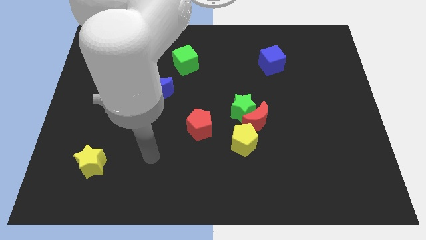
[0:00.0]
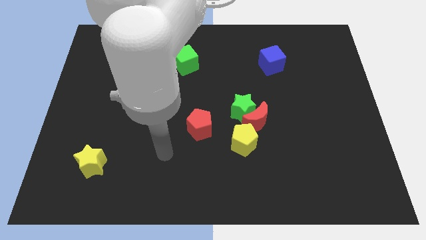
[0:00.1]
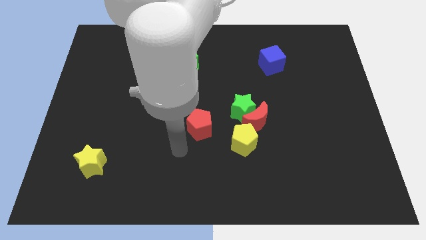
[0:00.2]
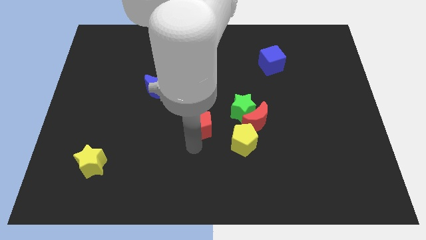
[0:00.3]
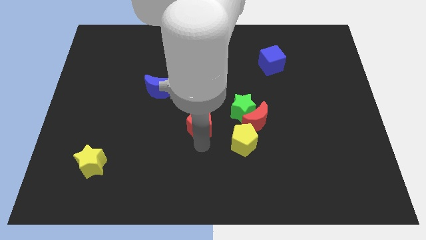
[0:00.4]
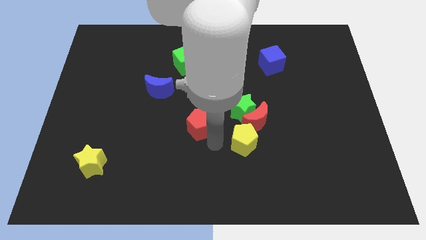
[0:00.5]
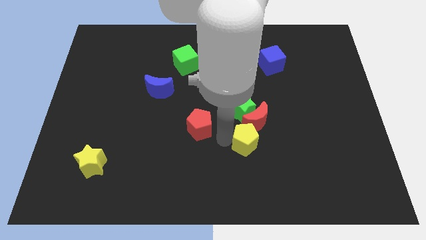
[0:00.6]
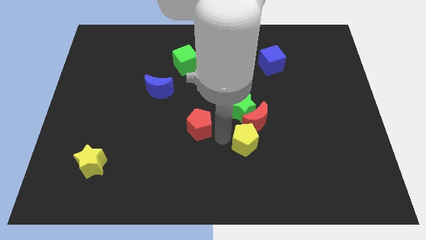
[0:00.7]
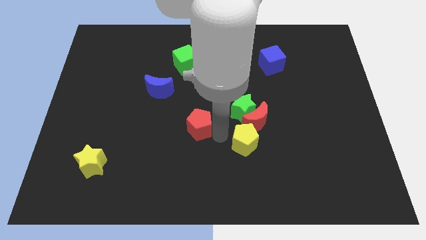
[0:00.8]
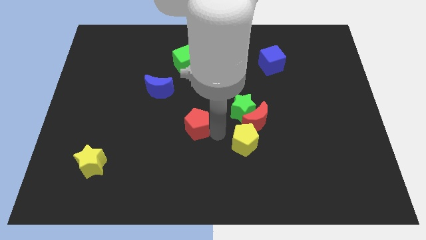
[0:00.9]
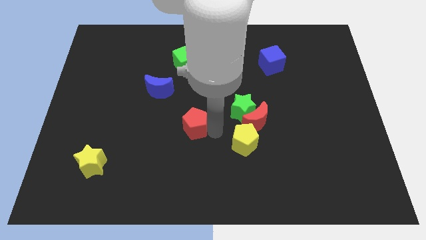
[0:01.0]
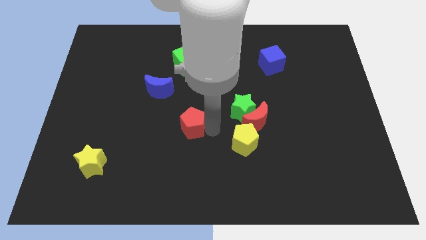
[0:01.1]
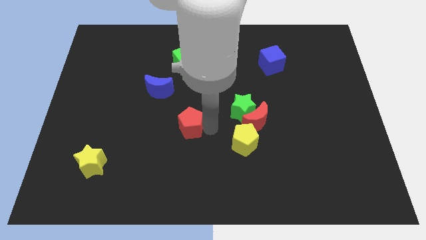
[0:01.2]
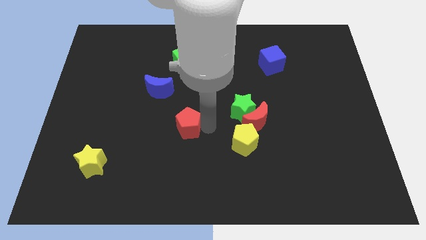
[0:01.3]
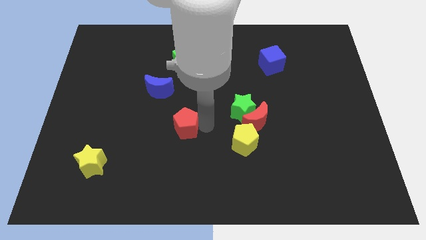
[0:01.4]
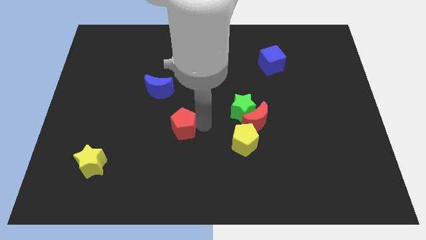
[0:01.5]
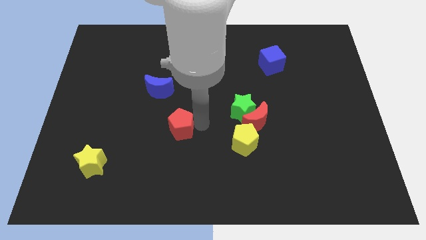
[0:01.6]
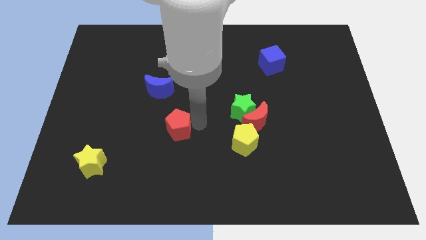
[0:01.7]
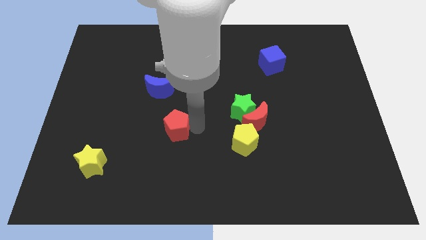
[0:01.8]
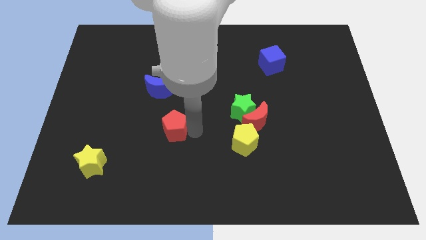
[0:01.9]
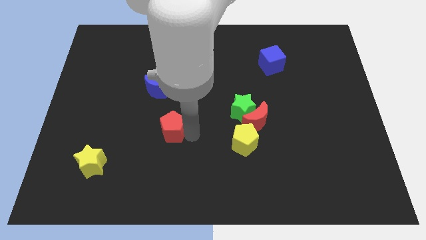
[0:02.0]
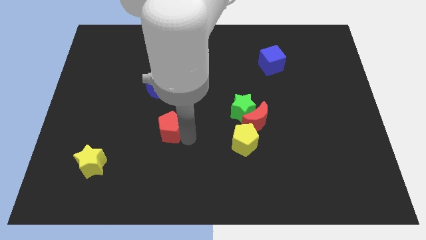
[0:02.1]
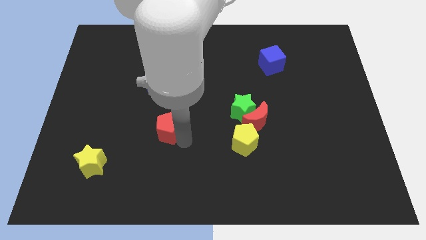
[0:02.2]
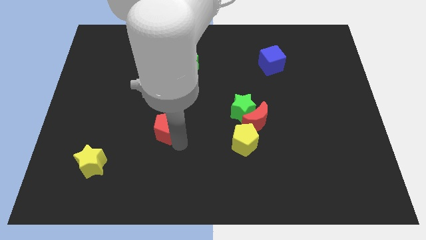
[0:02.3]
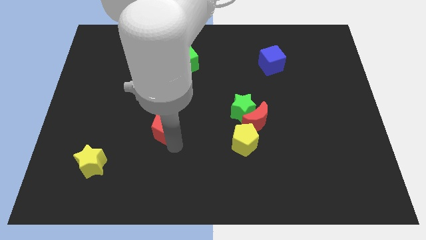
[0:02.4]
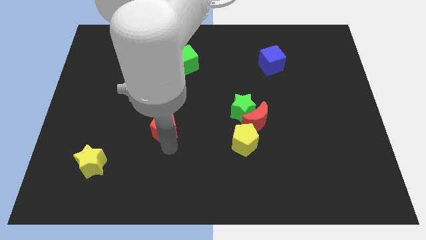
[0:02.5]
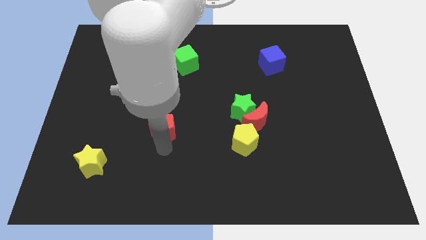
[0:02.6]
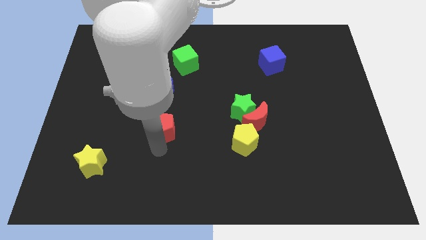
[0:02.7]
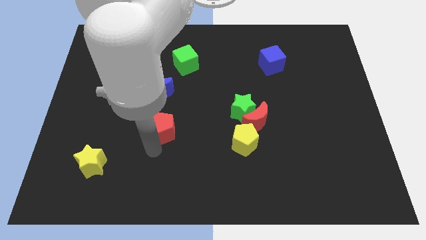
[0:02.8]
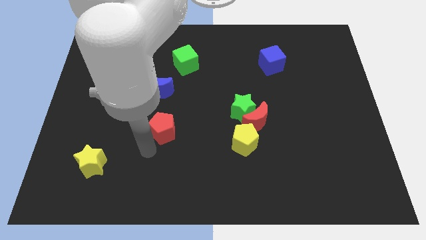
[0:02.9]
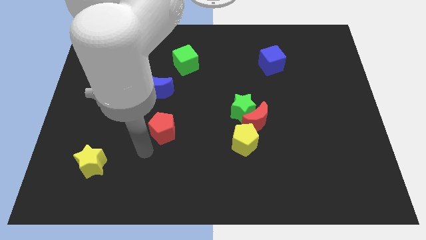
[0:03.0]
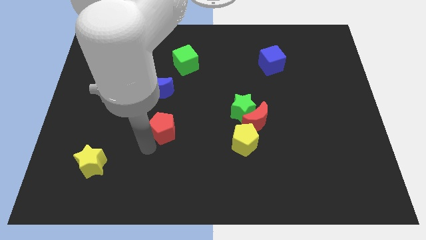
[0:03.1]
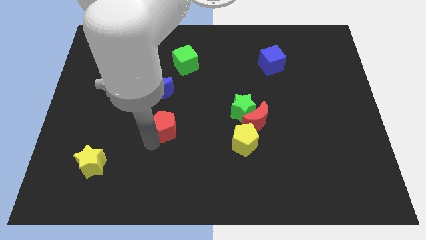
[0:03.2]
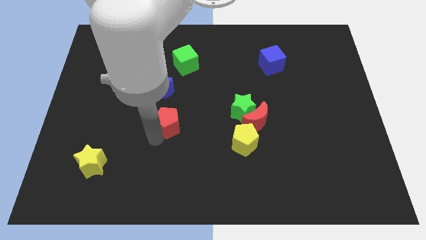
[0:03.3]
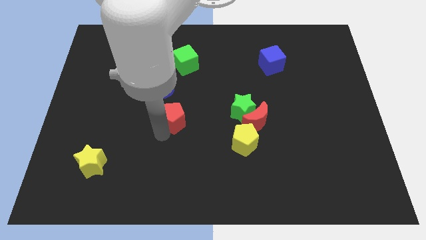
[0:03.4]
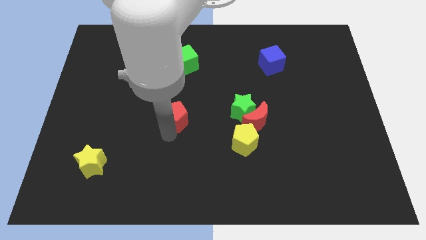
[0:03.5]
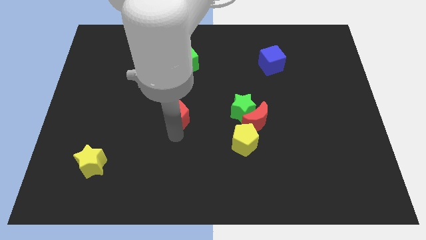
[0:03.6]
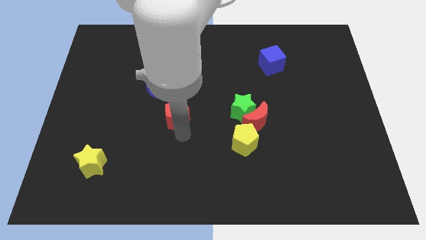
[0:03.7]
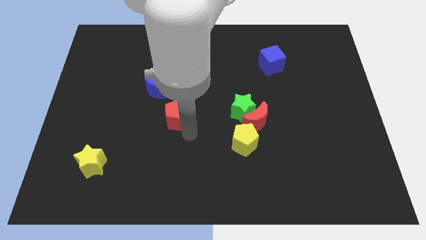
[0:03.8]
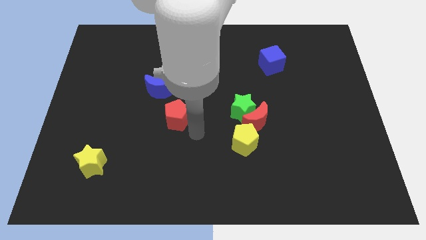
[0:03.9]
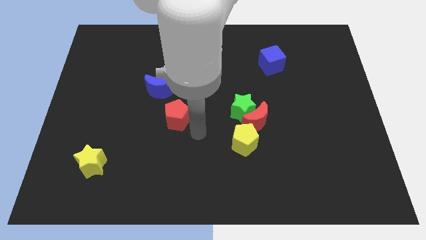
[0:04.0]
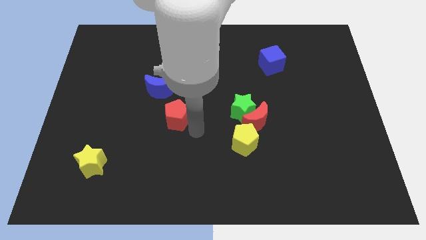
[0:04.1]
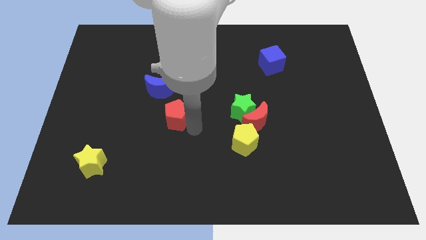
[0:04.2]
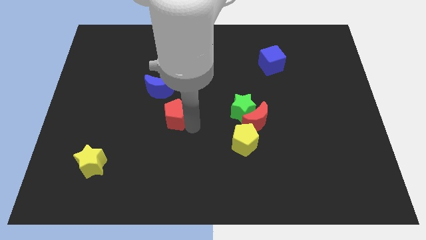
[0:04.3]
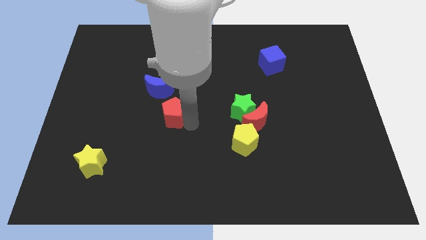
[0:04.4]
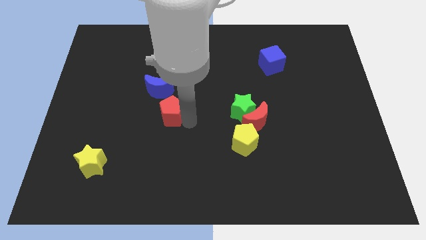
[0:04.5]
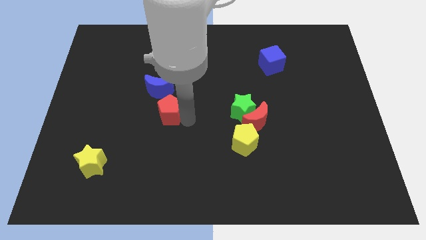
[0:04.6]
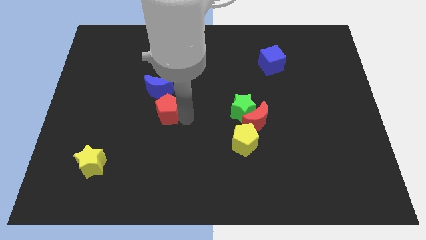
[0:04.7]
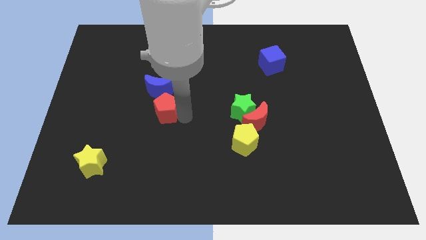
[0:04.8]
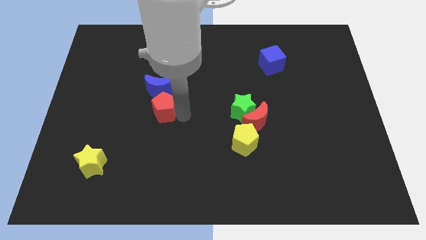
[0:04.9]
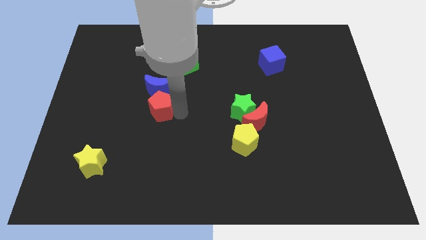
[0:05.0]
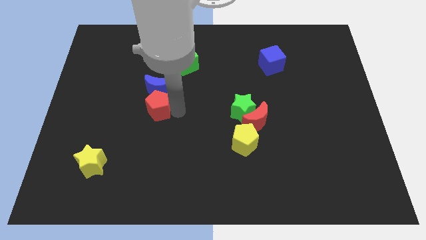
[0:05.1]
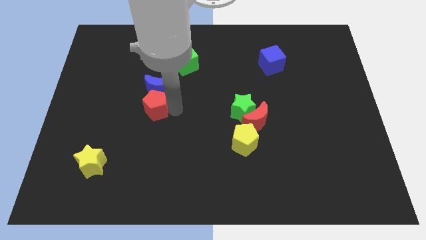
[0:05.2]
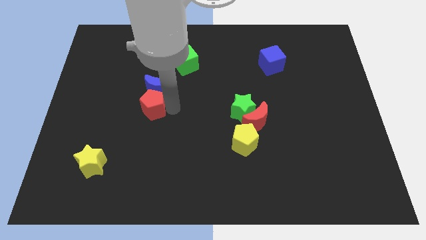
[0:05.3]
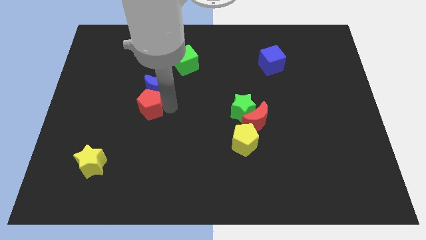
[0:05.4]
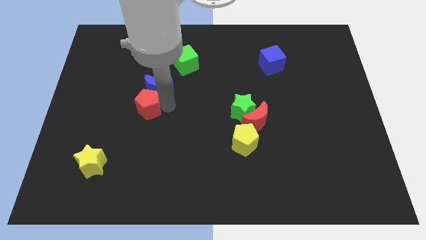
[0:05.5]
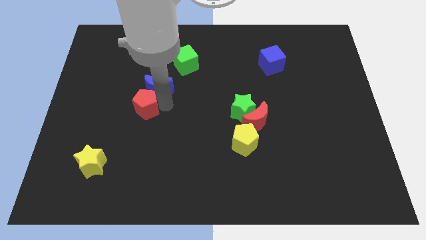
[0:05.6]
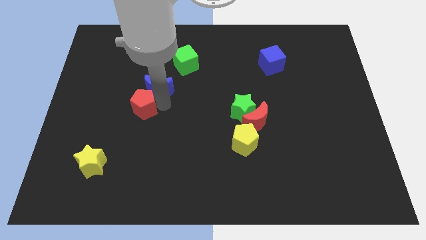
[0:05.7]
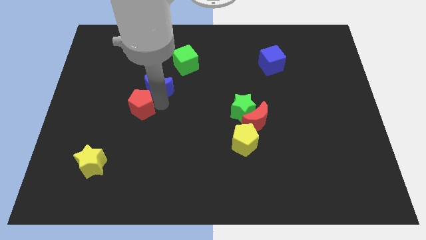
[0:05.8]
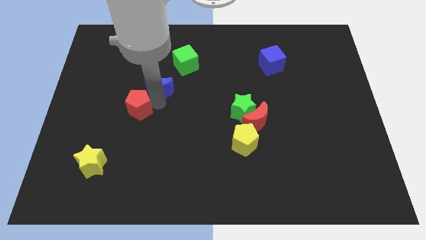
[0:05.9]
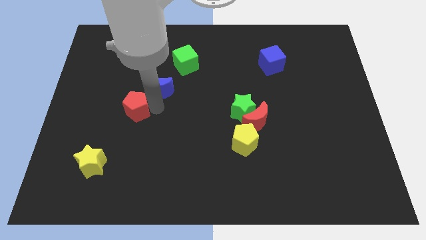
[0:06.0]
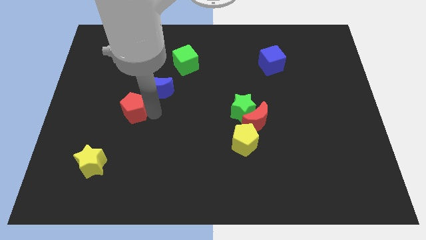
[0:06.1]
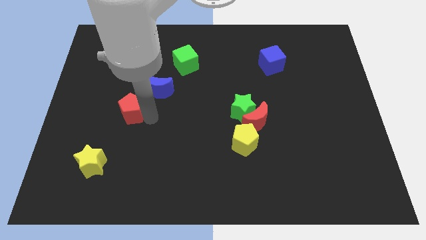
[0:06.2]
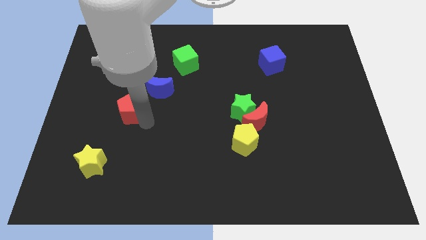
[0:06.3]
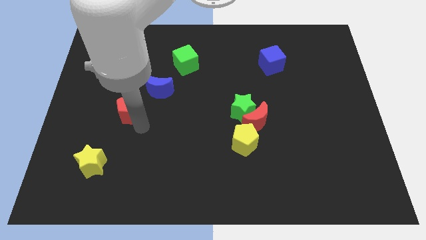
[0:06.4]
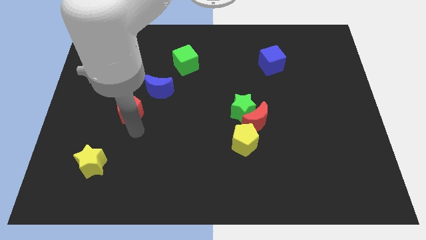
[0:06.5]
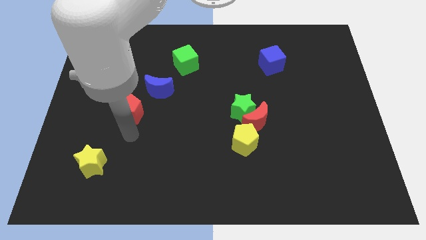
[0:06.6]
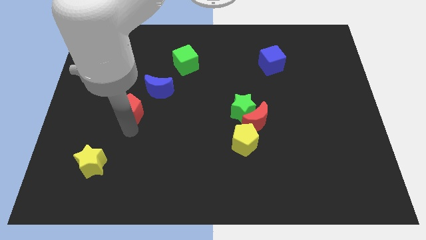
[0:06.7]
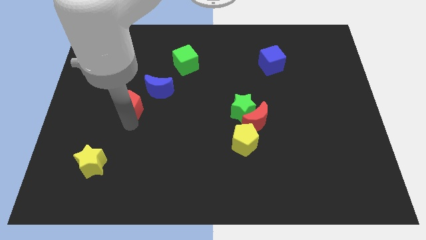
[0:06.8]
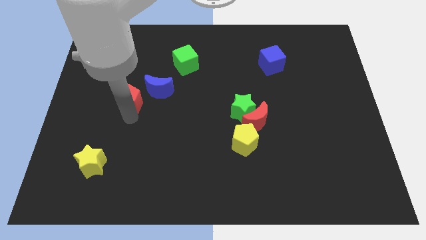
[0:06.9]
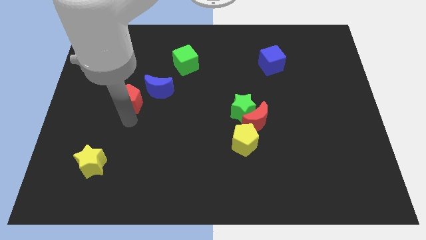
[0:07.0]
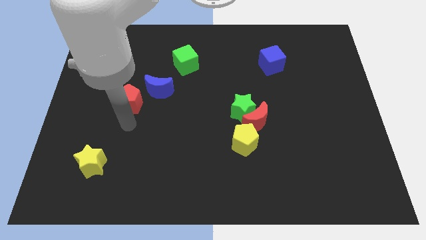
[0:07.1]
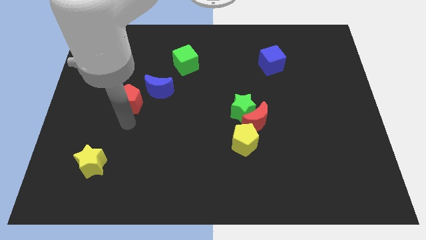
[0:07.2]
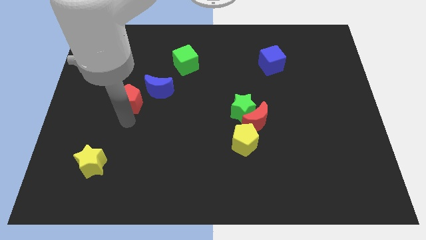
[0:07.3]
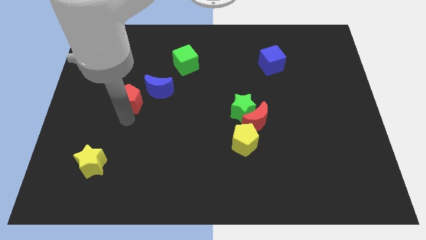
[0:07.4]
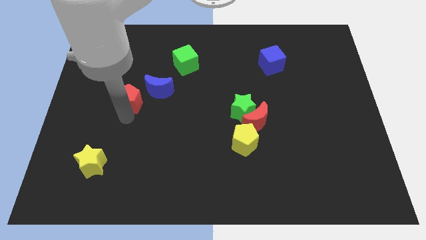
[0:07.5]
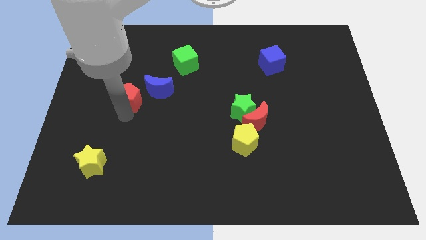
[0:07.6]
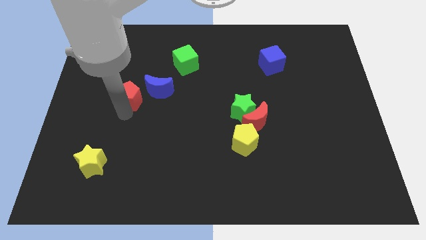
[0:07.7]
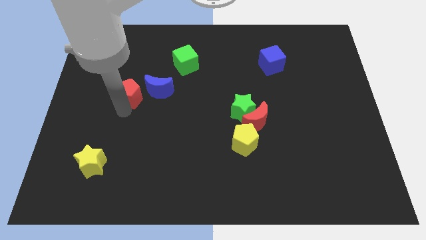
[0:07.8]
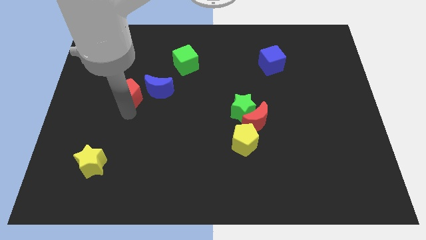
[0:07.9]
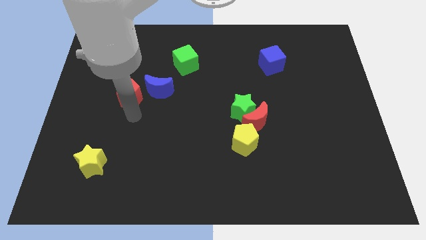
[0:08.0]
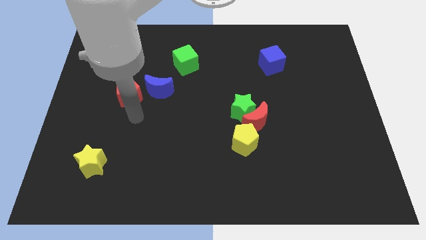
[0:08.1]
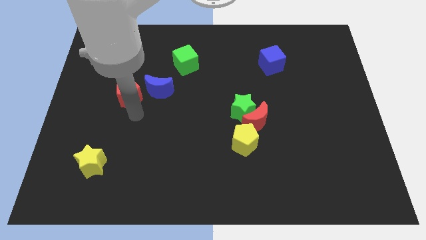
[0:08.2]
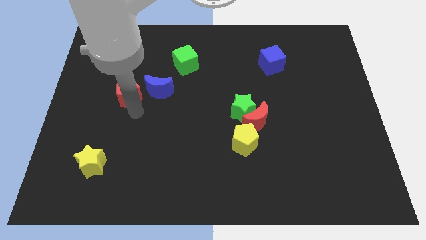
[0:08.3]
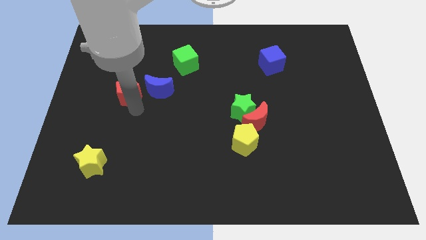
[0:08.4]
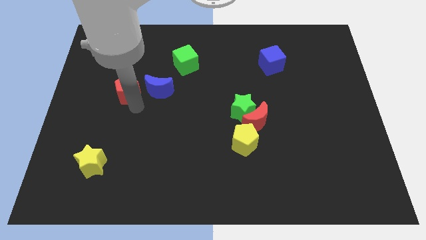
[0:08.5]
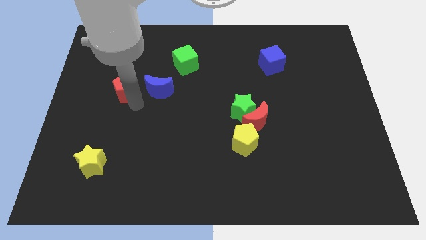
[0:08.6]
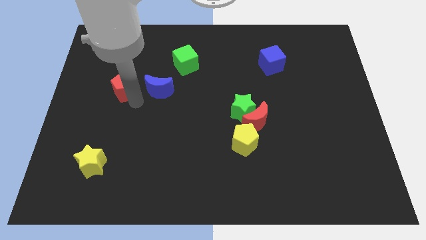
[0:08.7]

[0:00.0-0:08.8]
push the red pentagon upwards and then to the left
